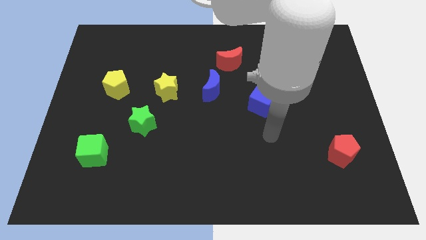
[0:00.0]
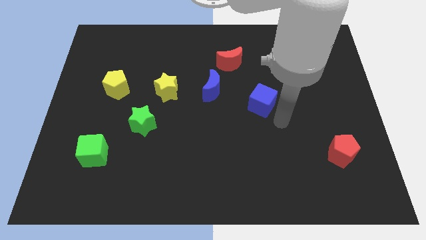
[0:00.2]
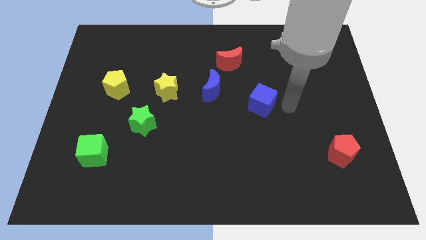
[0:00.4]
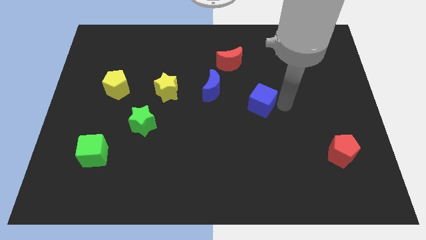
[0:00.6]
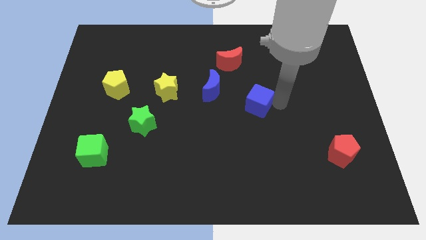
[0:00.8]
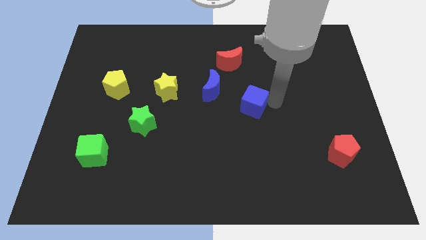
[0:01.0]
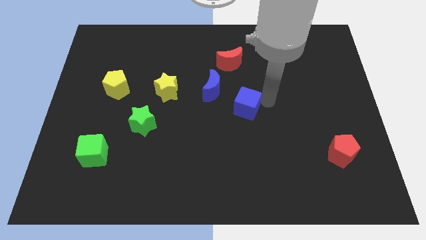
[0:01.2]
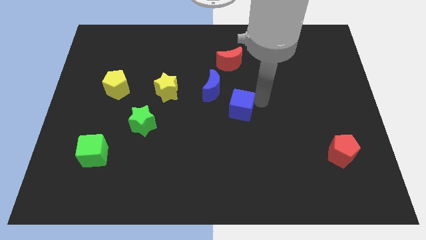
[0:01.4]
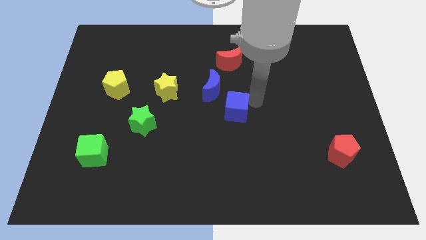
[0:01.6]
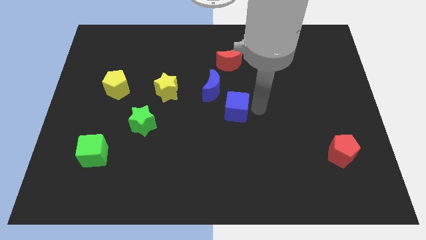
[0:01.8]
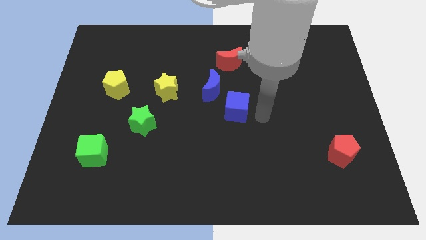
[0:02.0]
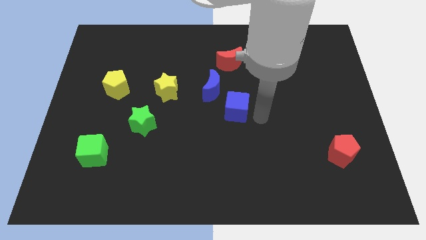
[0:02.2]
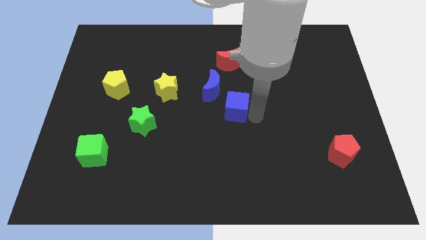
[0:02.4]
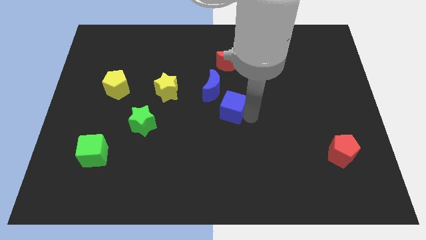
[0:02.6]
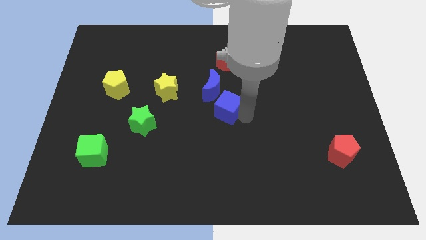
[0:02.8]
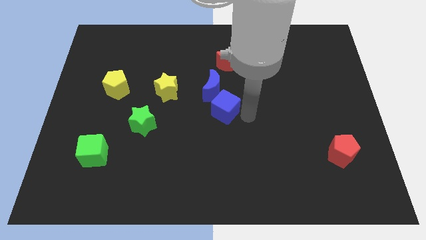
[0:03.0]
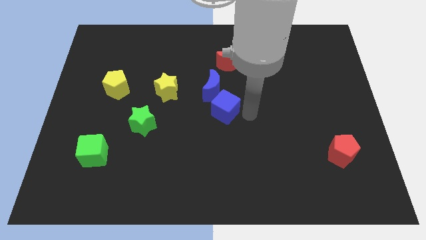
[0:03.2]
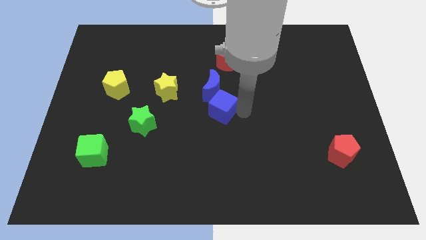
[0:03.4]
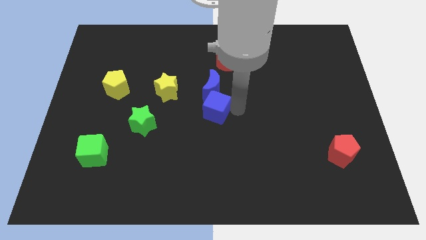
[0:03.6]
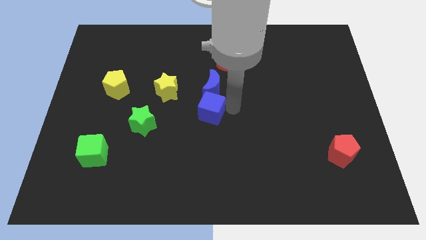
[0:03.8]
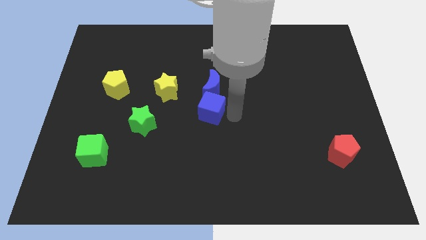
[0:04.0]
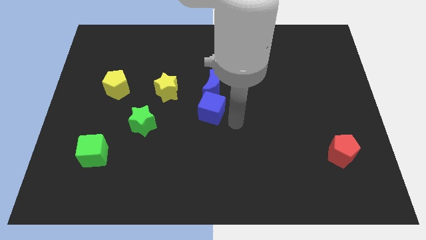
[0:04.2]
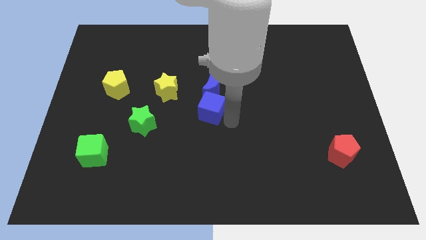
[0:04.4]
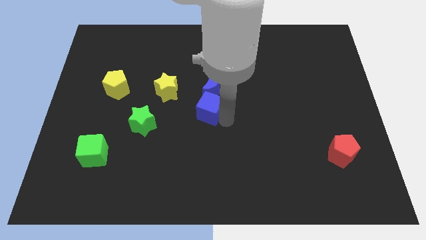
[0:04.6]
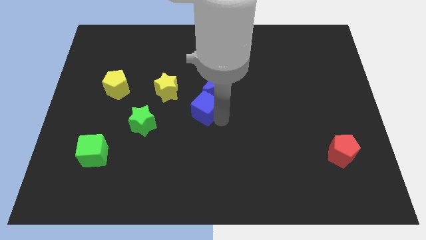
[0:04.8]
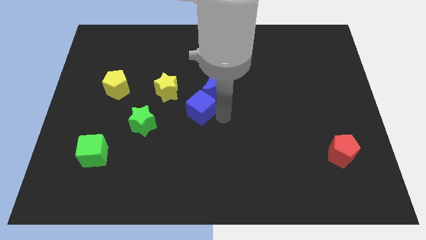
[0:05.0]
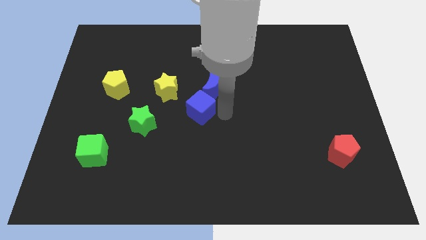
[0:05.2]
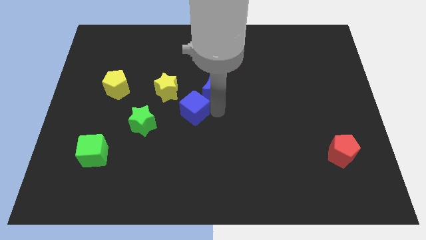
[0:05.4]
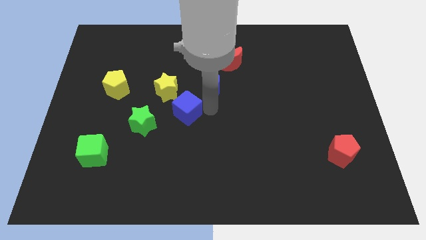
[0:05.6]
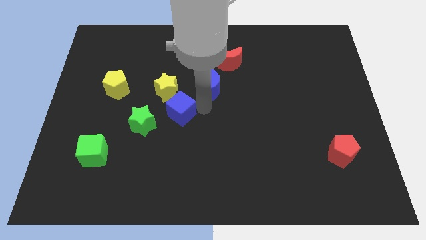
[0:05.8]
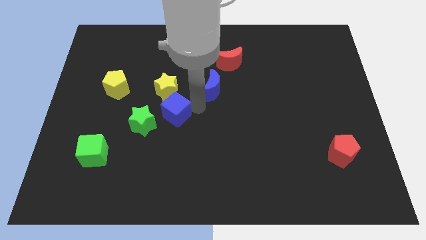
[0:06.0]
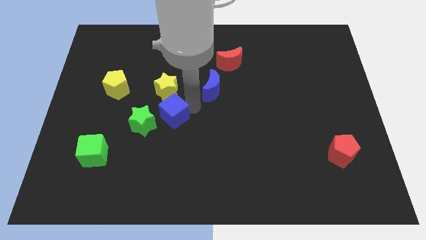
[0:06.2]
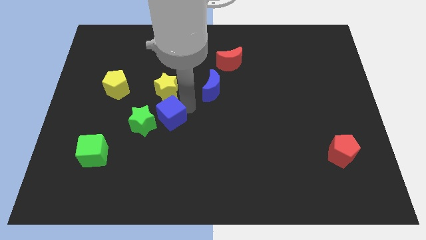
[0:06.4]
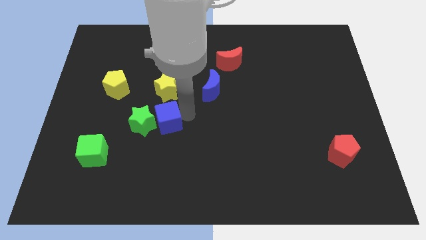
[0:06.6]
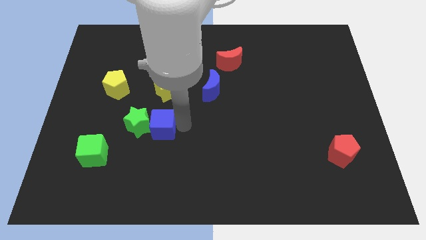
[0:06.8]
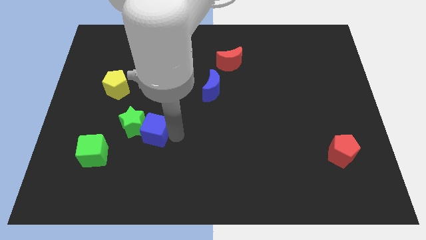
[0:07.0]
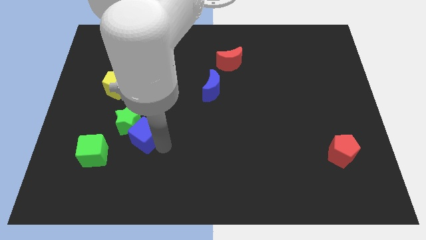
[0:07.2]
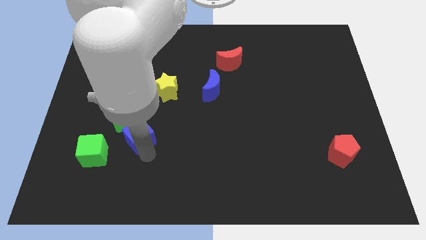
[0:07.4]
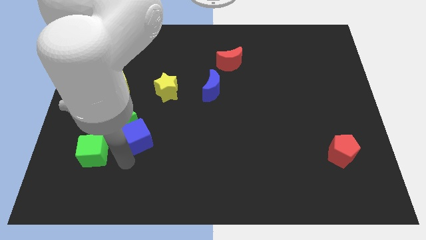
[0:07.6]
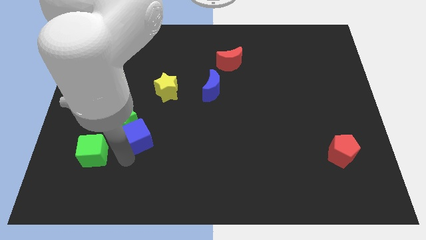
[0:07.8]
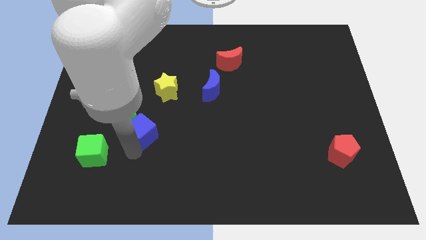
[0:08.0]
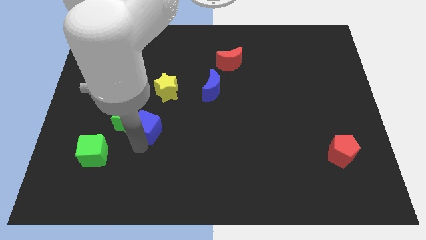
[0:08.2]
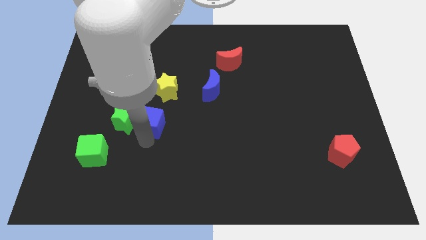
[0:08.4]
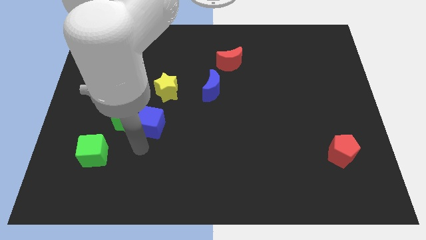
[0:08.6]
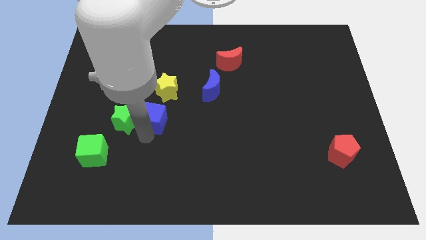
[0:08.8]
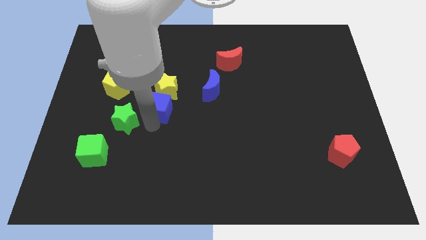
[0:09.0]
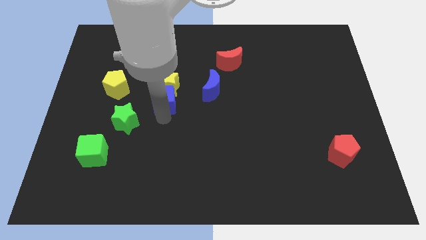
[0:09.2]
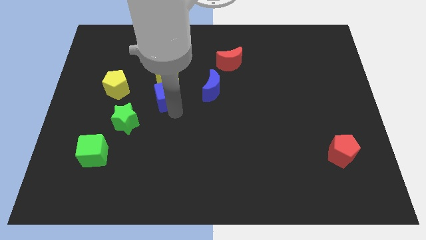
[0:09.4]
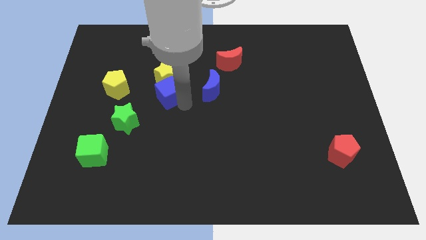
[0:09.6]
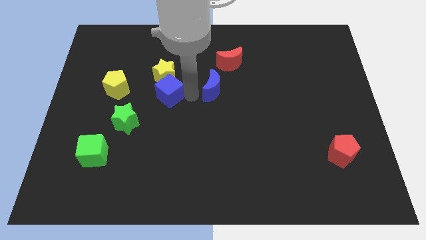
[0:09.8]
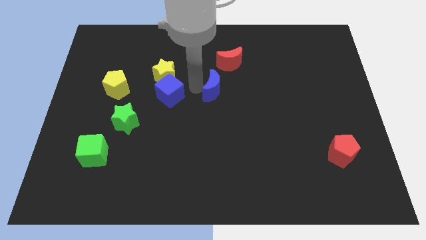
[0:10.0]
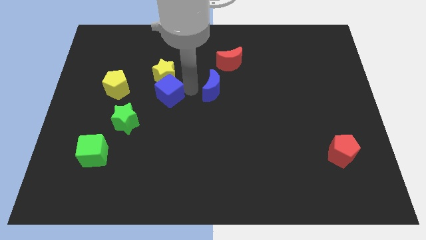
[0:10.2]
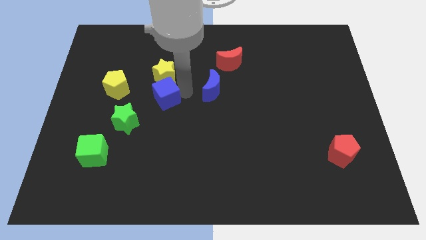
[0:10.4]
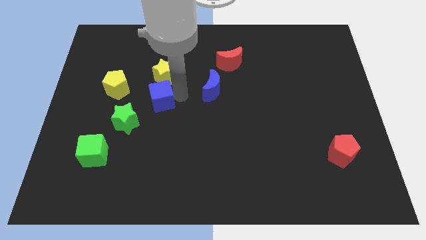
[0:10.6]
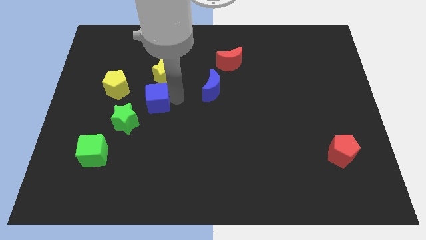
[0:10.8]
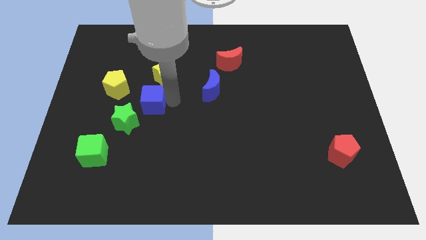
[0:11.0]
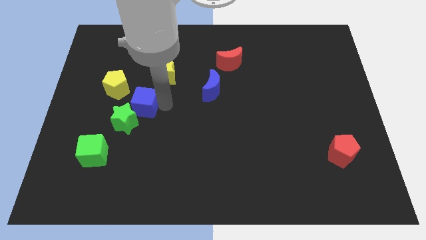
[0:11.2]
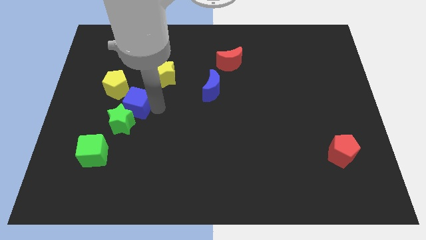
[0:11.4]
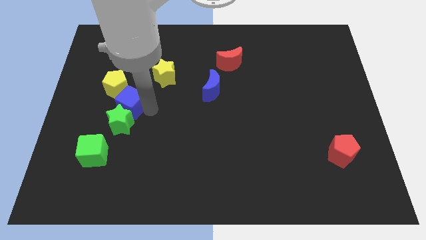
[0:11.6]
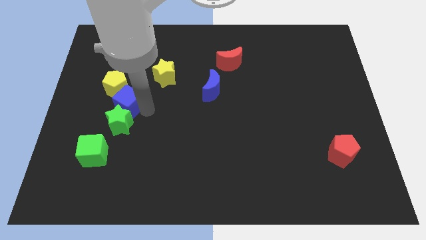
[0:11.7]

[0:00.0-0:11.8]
put the blue cube towards the yellow pentagon

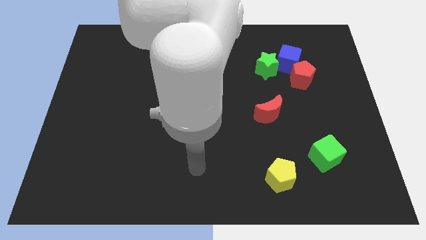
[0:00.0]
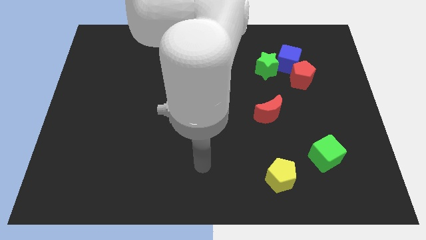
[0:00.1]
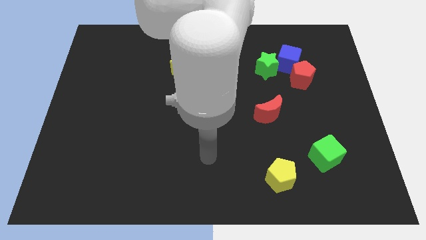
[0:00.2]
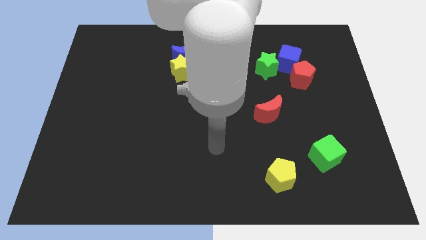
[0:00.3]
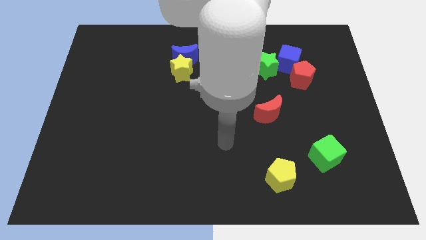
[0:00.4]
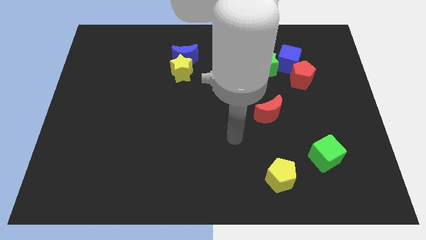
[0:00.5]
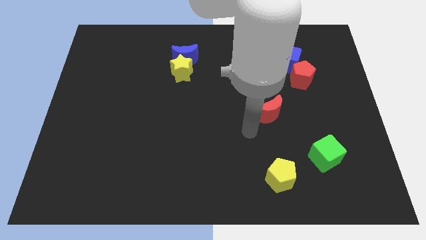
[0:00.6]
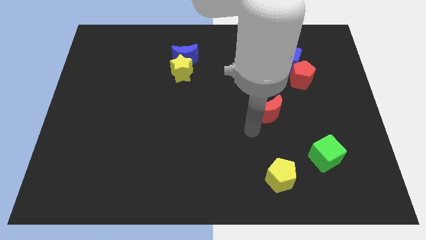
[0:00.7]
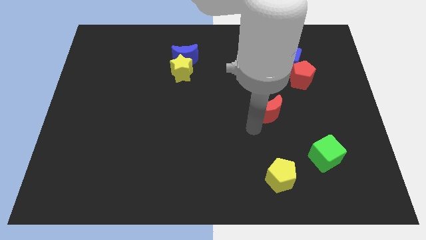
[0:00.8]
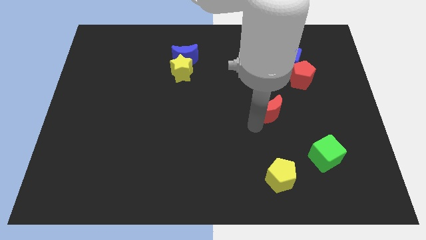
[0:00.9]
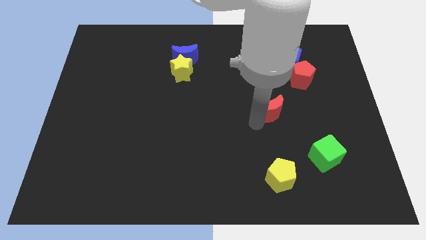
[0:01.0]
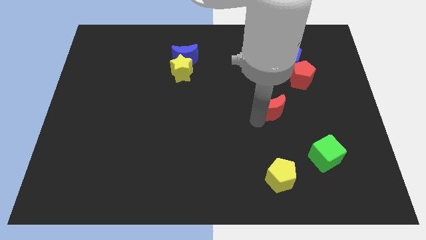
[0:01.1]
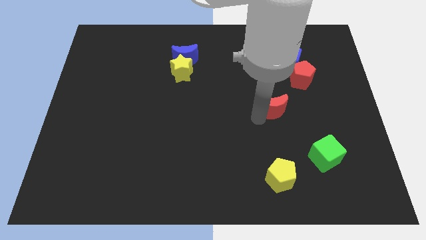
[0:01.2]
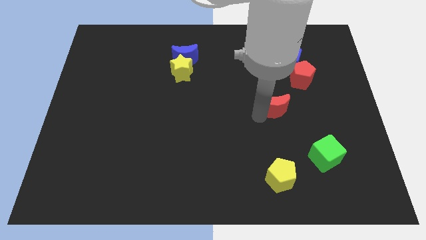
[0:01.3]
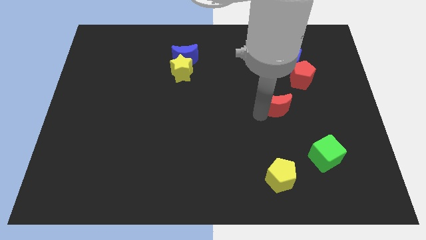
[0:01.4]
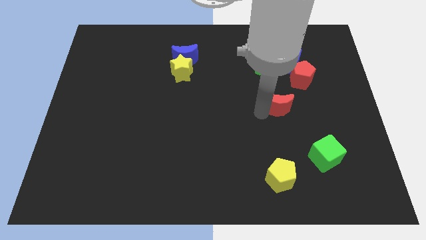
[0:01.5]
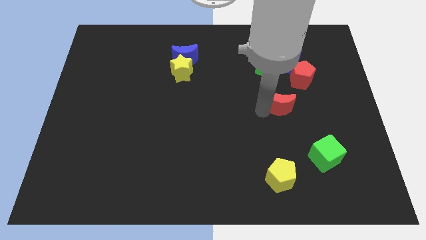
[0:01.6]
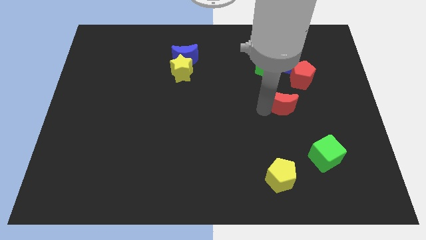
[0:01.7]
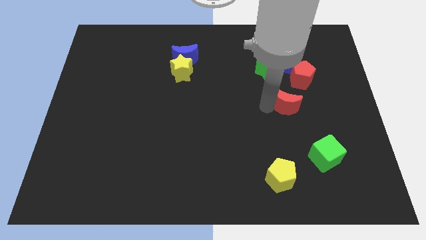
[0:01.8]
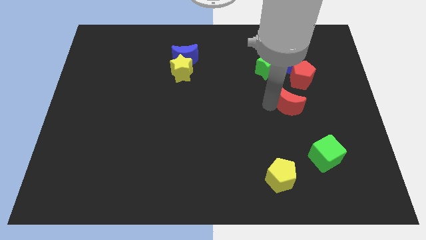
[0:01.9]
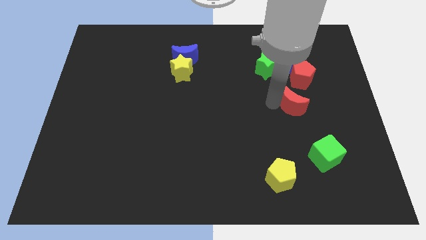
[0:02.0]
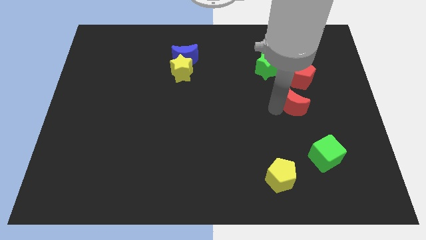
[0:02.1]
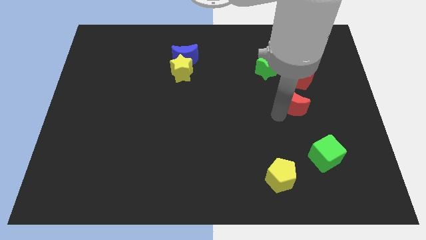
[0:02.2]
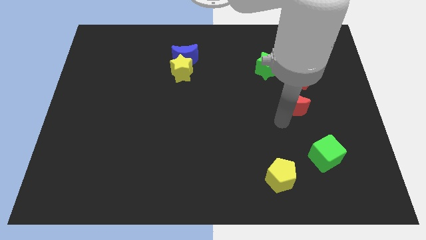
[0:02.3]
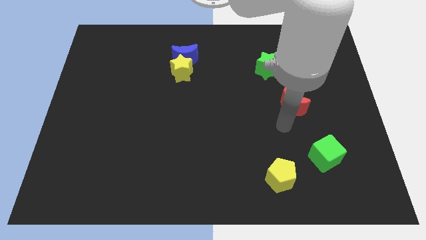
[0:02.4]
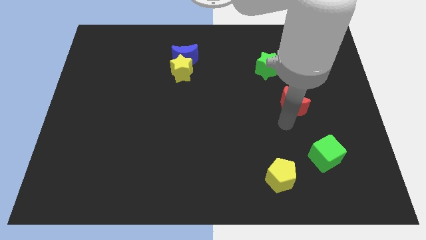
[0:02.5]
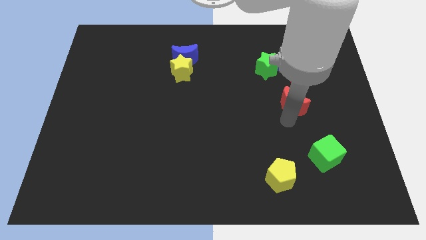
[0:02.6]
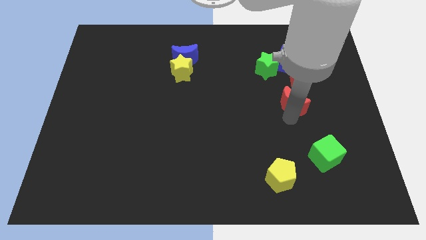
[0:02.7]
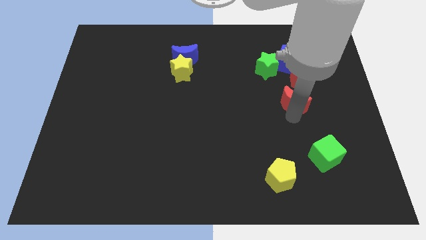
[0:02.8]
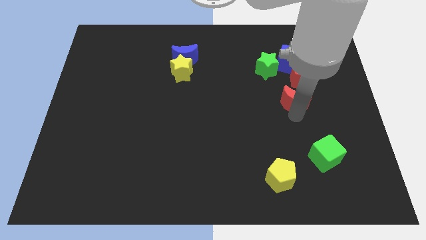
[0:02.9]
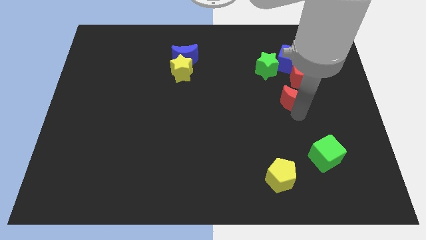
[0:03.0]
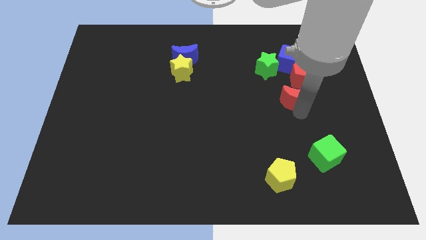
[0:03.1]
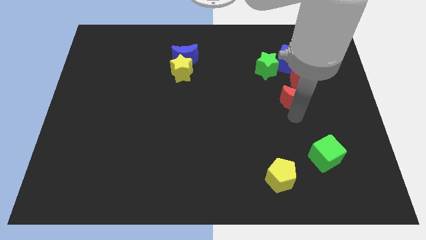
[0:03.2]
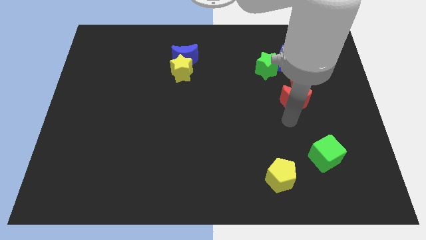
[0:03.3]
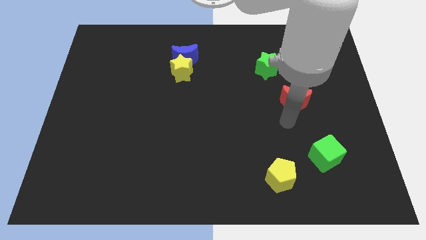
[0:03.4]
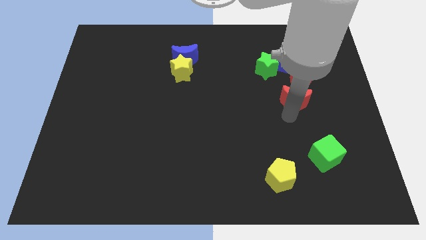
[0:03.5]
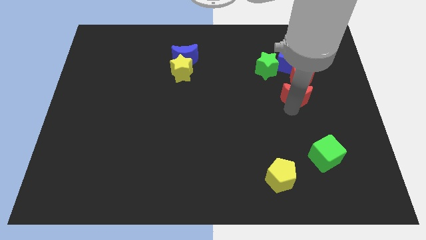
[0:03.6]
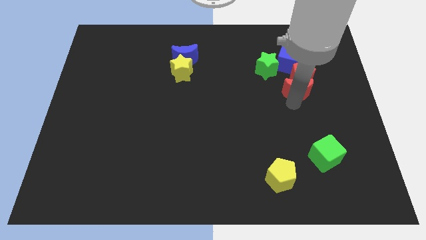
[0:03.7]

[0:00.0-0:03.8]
slide the red moon close to the red pentagon
